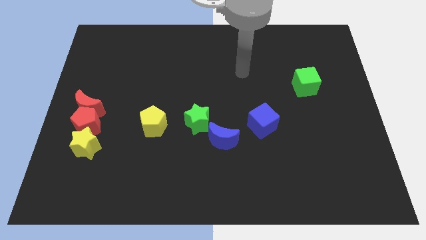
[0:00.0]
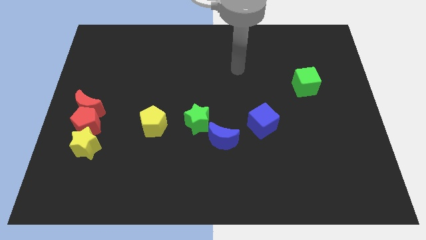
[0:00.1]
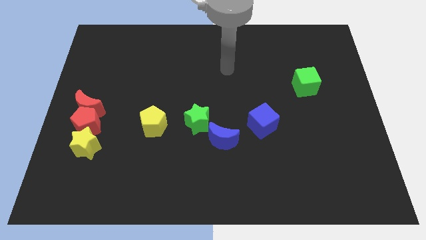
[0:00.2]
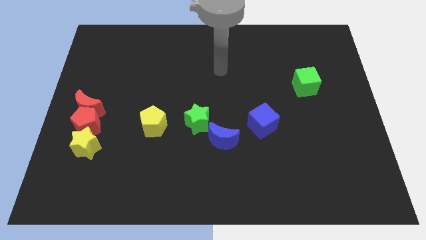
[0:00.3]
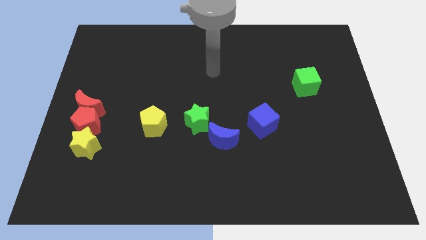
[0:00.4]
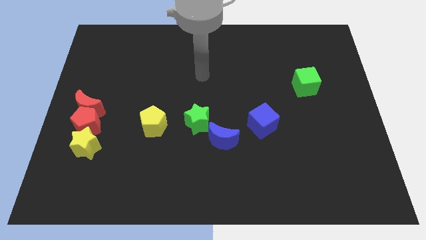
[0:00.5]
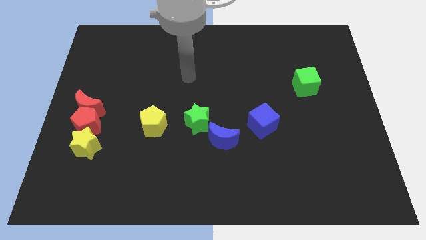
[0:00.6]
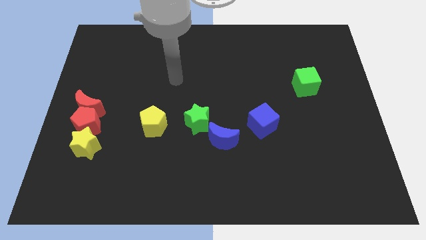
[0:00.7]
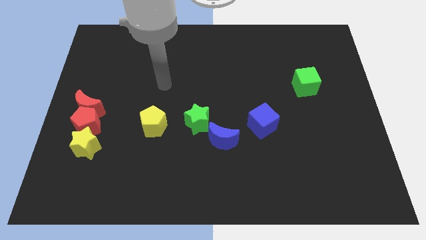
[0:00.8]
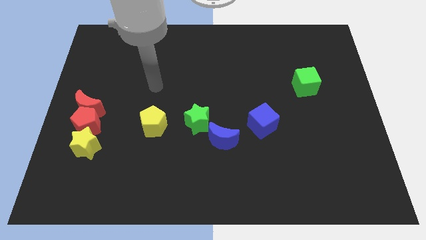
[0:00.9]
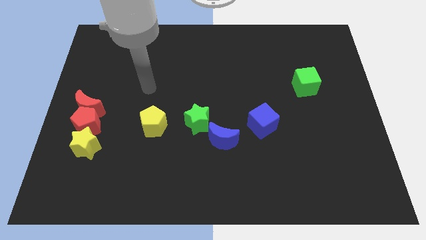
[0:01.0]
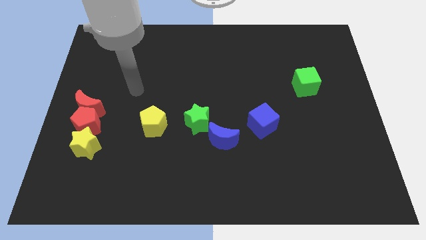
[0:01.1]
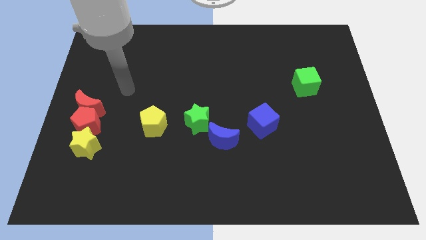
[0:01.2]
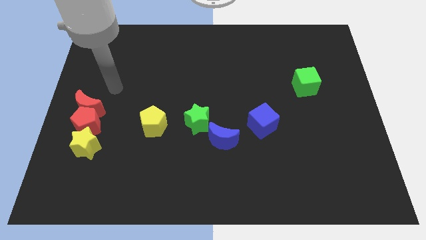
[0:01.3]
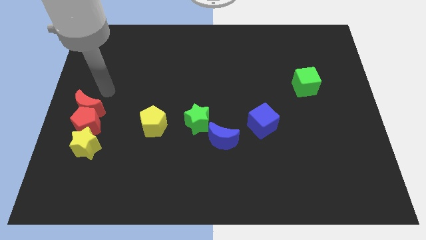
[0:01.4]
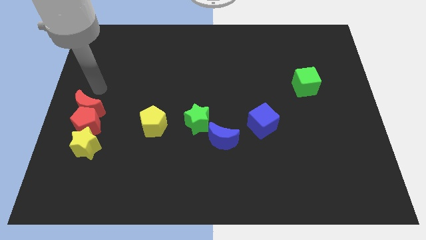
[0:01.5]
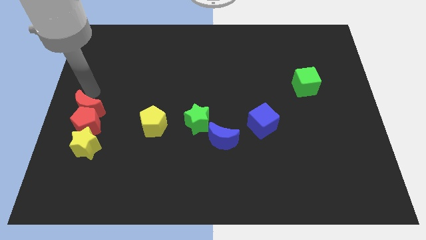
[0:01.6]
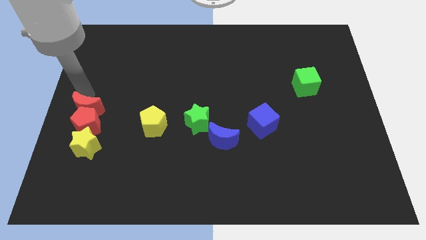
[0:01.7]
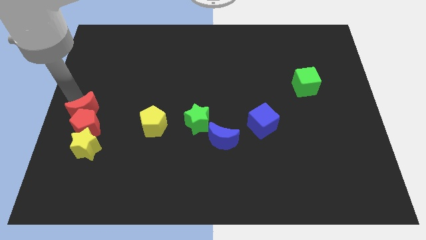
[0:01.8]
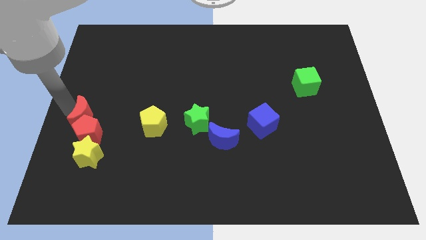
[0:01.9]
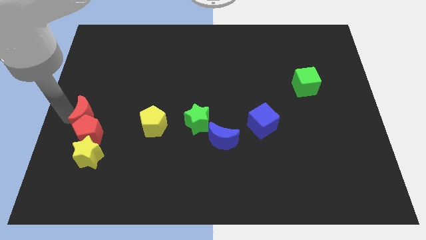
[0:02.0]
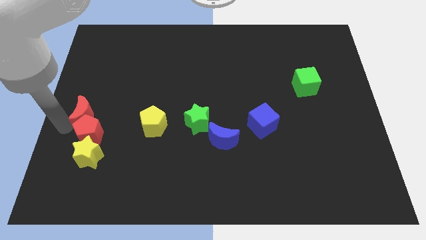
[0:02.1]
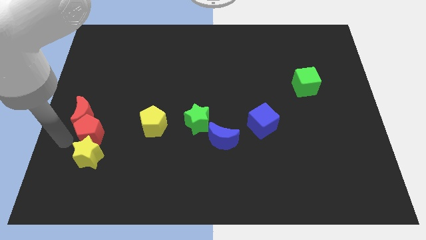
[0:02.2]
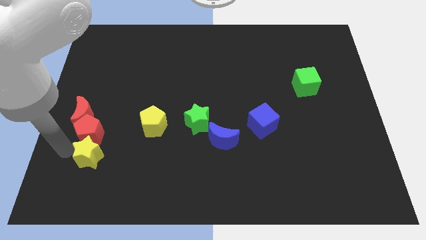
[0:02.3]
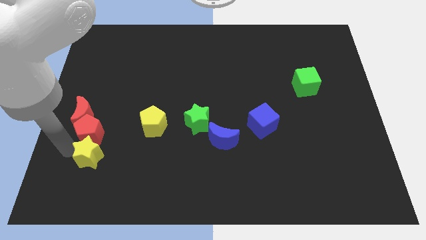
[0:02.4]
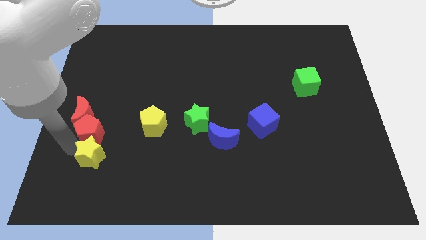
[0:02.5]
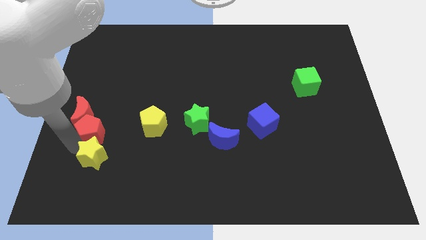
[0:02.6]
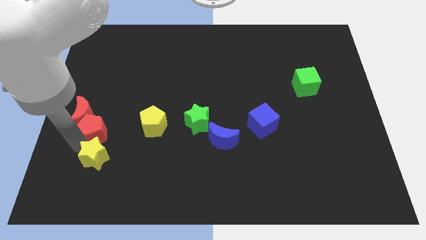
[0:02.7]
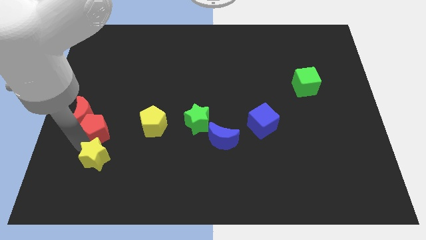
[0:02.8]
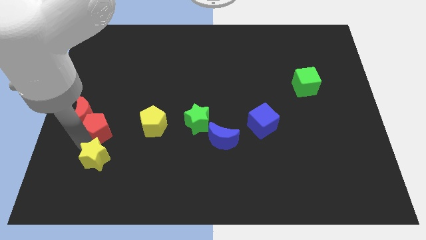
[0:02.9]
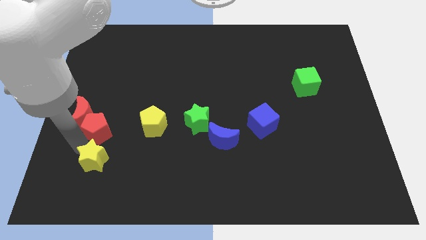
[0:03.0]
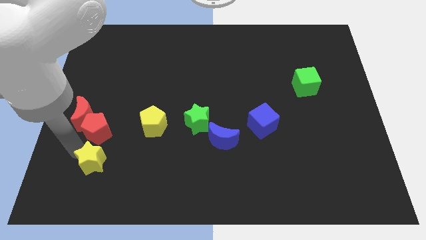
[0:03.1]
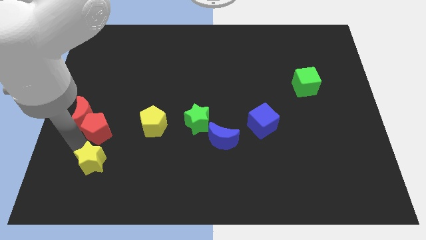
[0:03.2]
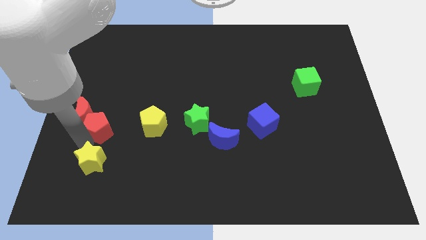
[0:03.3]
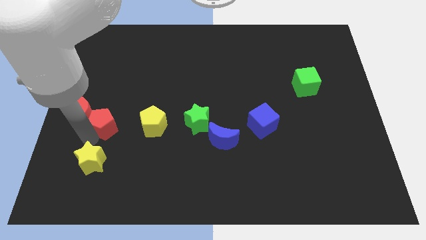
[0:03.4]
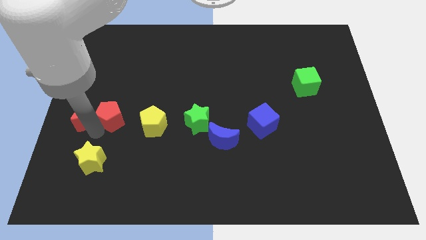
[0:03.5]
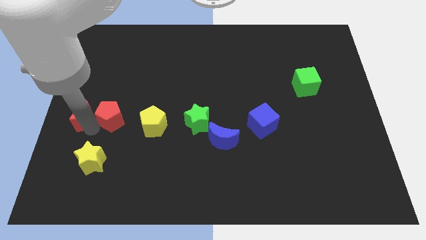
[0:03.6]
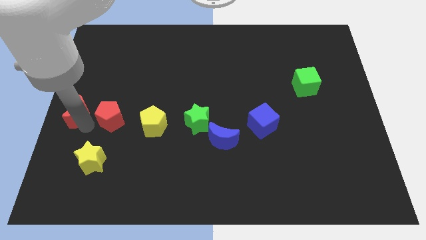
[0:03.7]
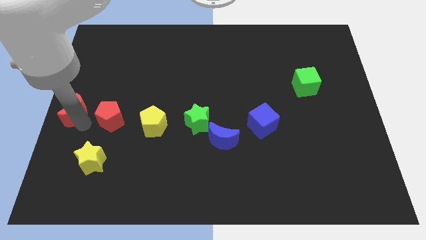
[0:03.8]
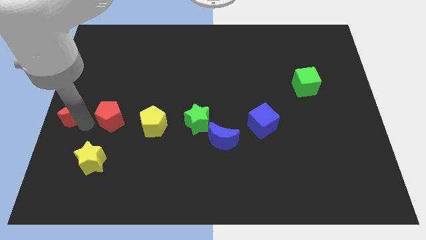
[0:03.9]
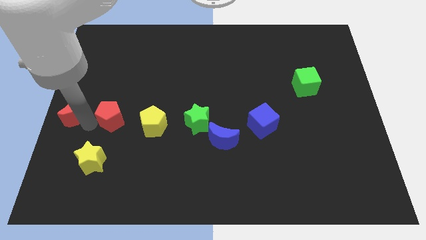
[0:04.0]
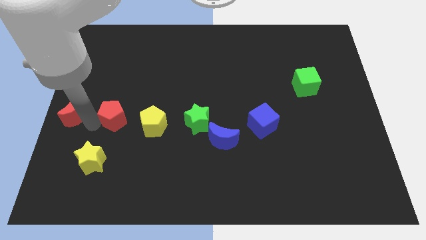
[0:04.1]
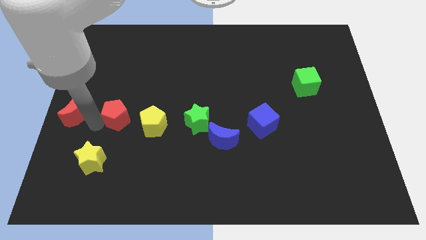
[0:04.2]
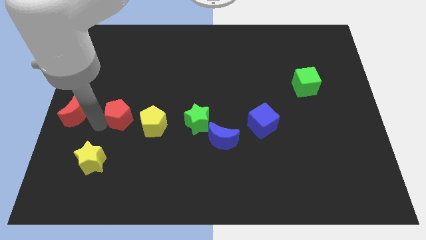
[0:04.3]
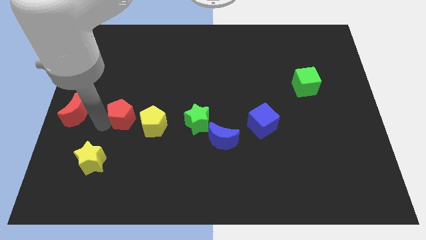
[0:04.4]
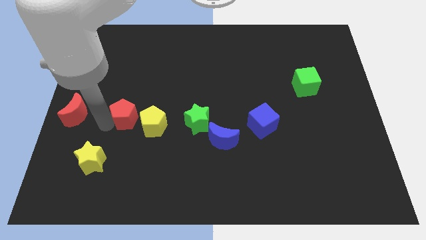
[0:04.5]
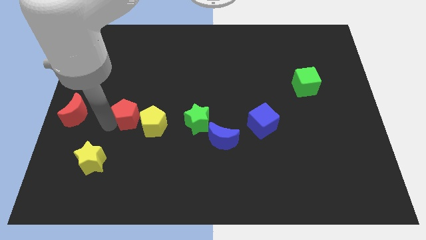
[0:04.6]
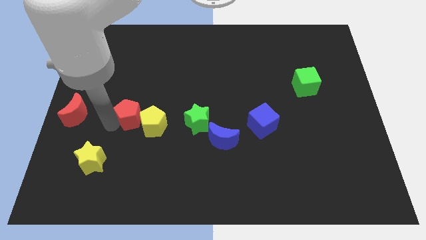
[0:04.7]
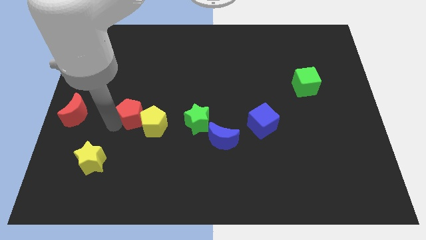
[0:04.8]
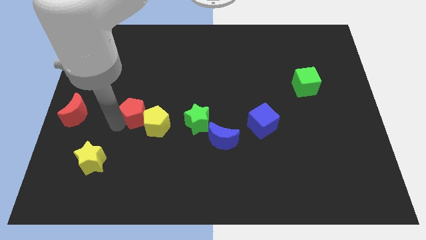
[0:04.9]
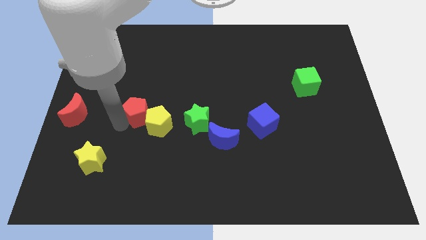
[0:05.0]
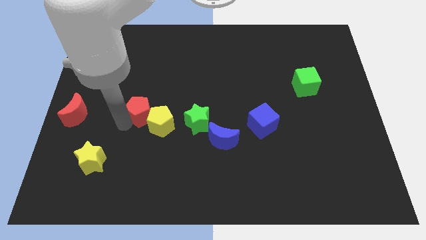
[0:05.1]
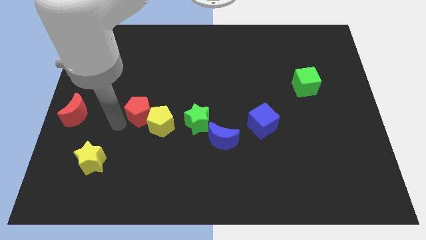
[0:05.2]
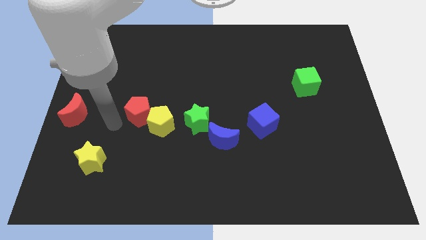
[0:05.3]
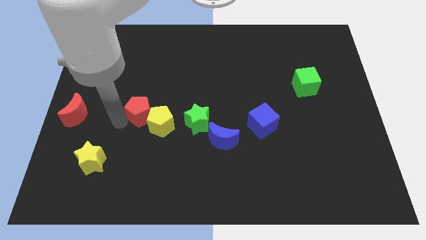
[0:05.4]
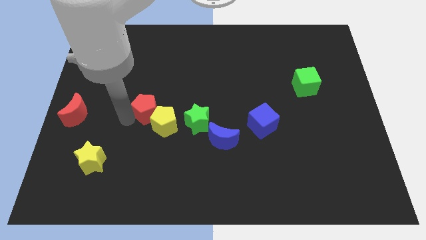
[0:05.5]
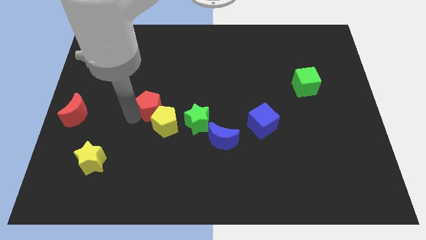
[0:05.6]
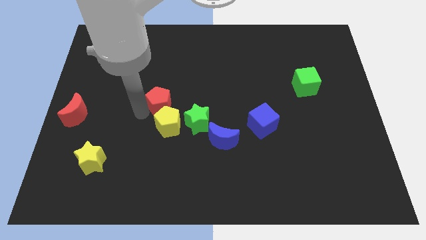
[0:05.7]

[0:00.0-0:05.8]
put the red pentagon to the center of the board

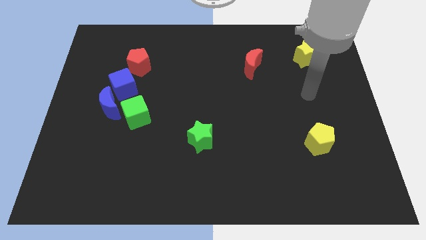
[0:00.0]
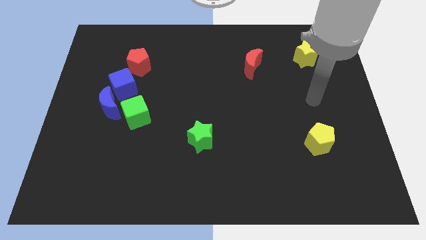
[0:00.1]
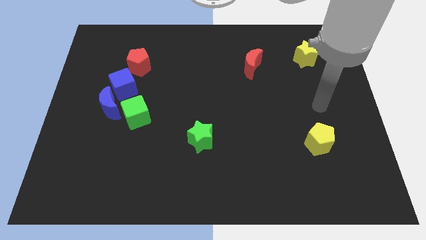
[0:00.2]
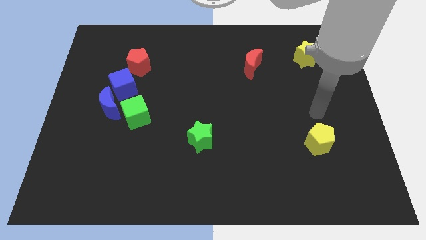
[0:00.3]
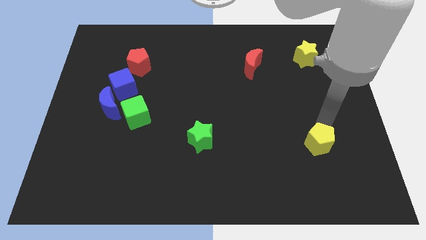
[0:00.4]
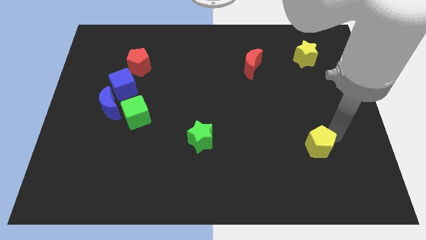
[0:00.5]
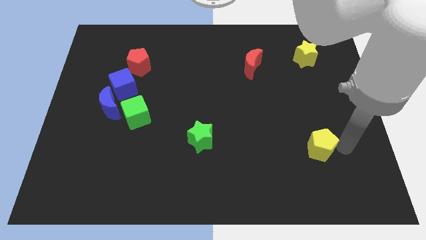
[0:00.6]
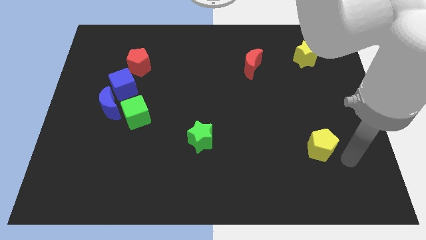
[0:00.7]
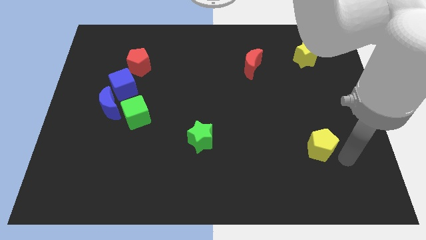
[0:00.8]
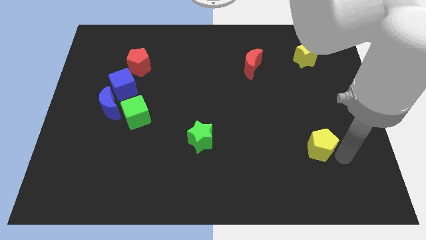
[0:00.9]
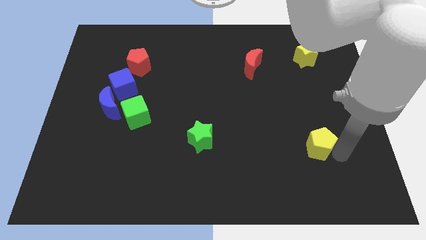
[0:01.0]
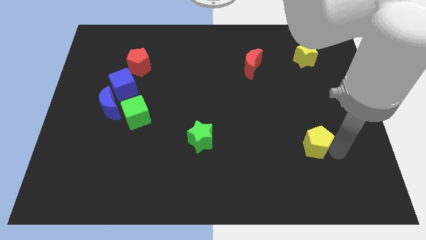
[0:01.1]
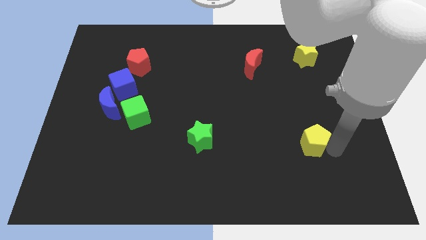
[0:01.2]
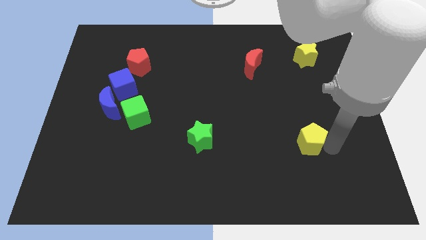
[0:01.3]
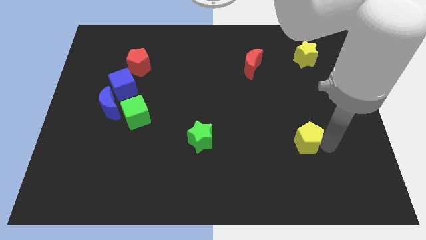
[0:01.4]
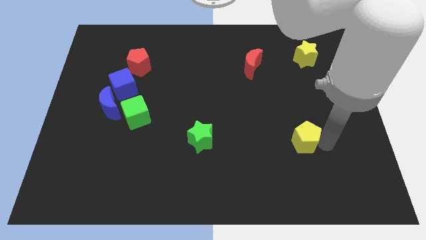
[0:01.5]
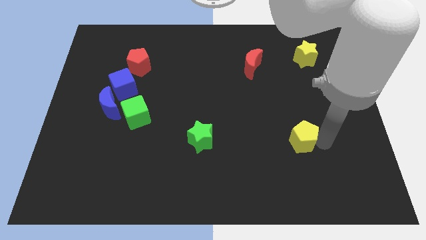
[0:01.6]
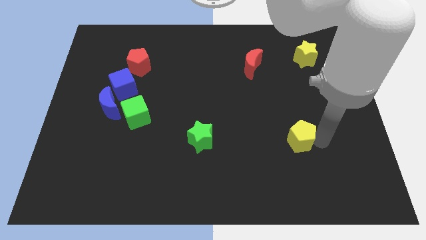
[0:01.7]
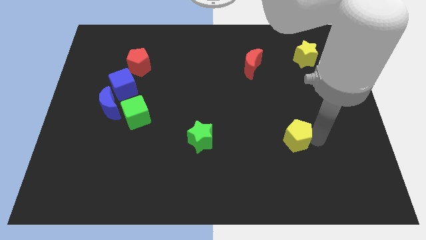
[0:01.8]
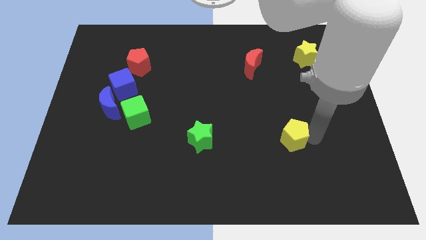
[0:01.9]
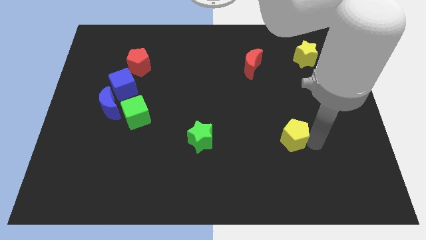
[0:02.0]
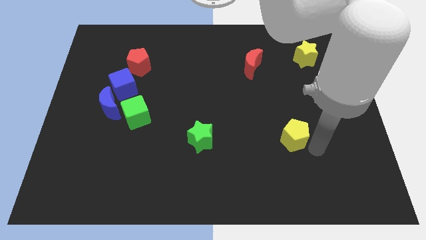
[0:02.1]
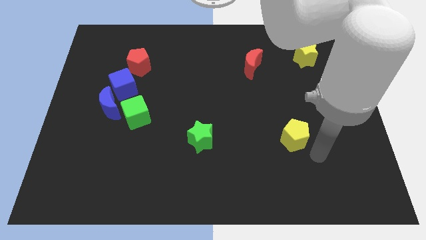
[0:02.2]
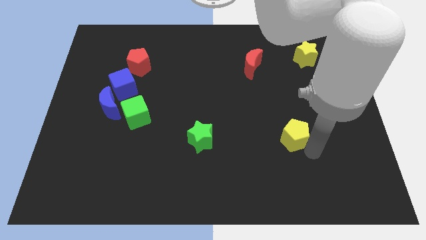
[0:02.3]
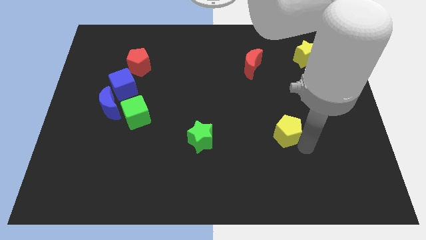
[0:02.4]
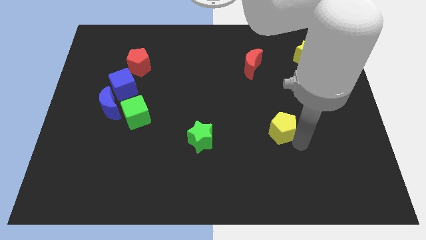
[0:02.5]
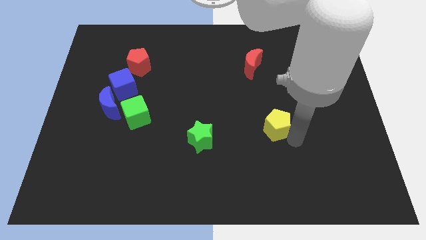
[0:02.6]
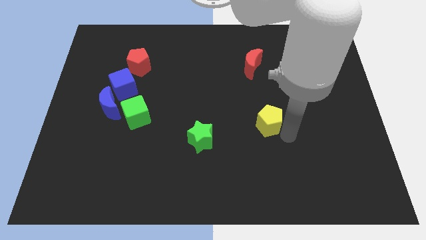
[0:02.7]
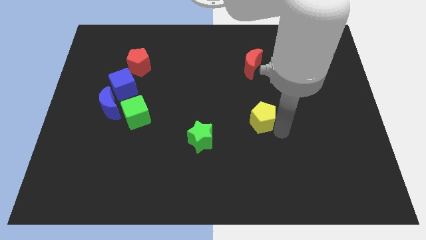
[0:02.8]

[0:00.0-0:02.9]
slide the yellow pentagon to the middle
